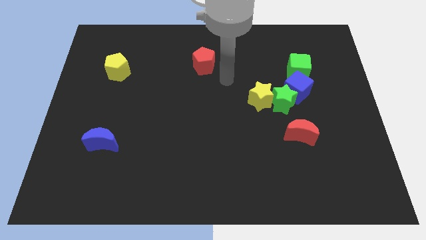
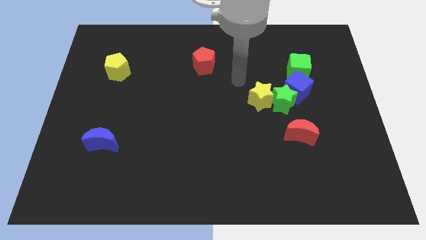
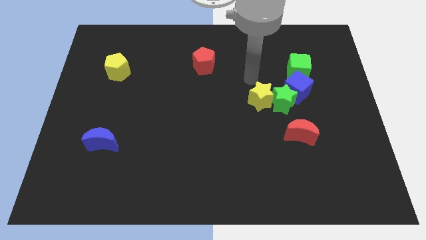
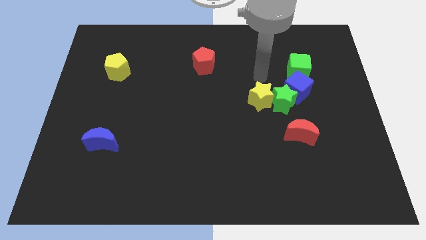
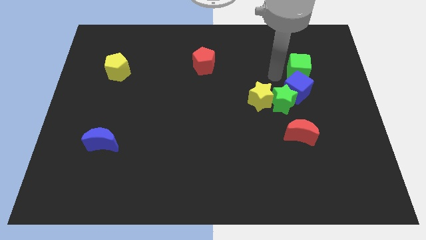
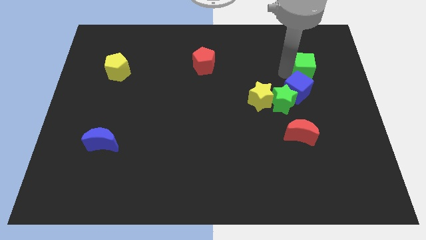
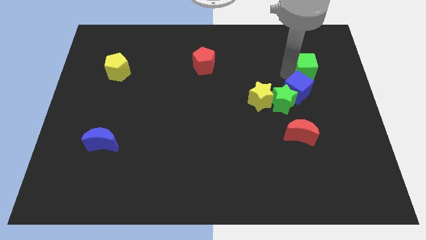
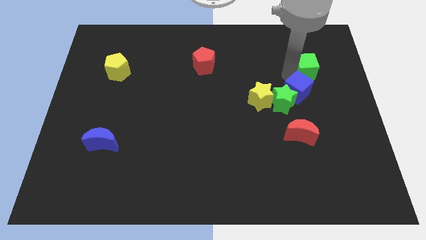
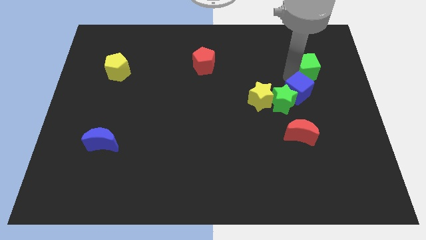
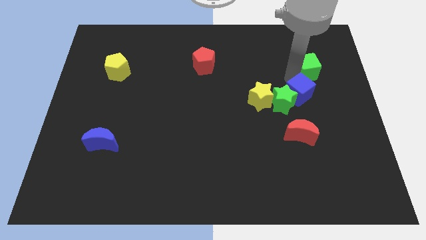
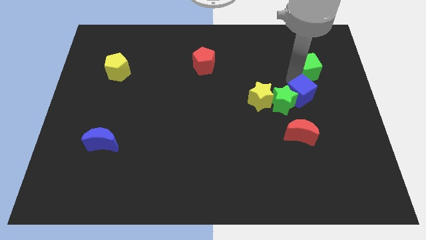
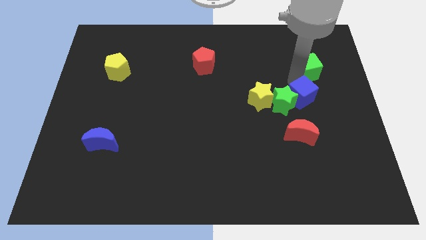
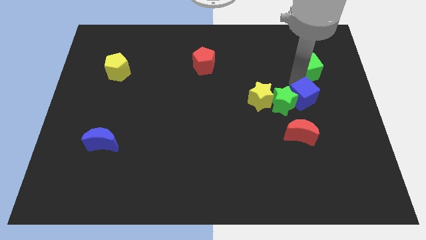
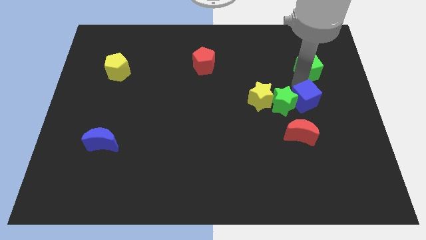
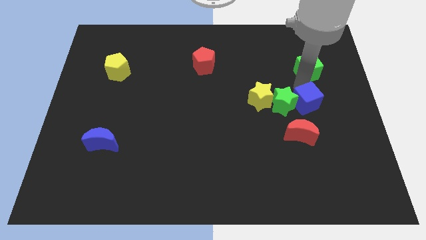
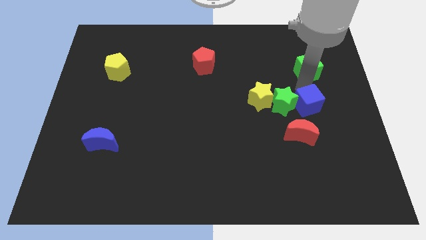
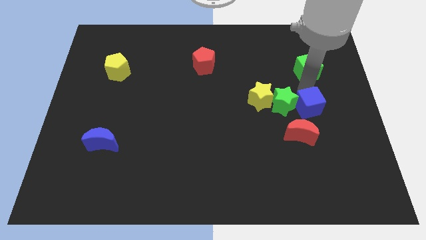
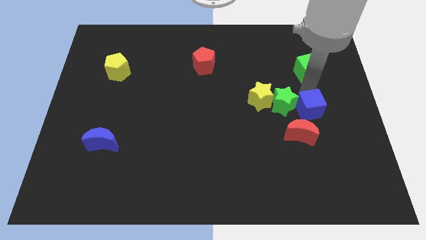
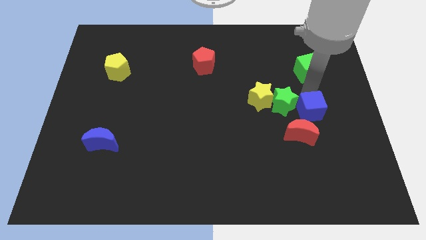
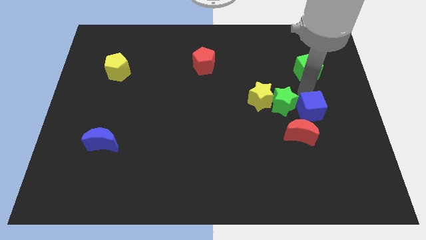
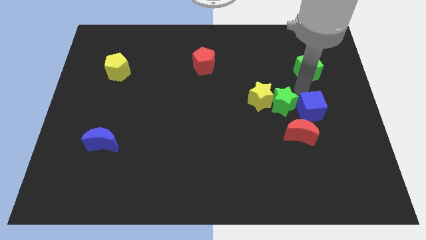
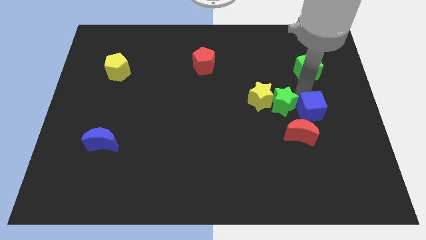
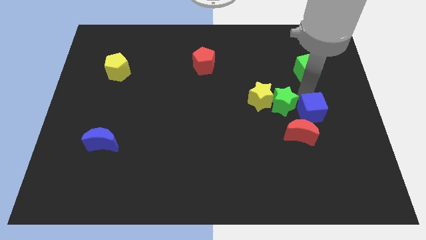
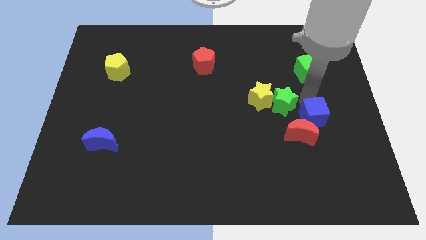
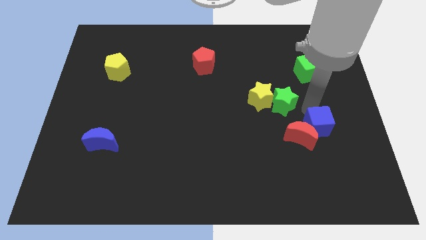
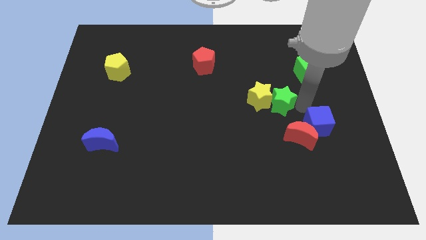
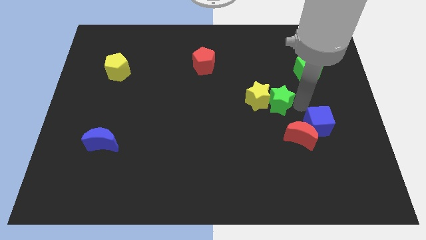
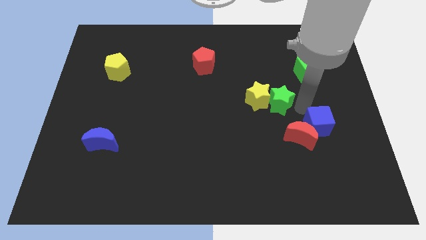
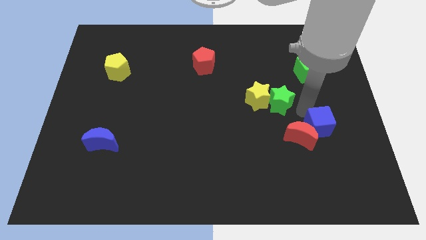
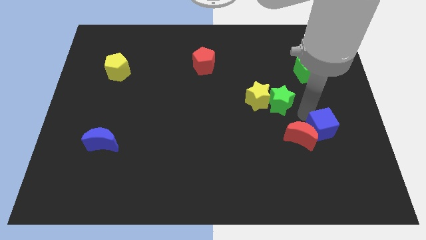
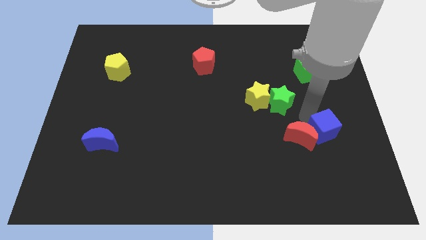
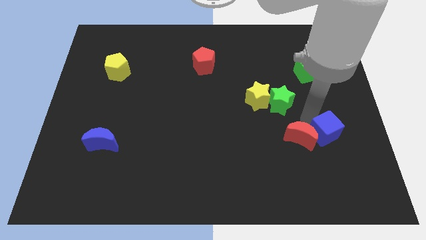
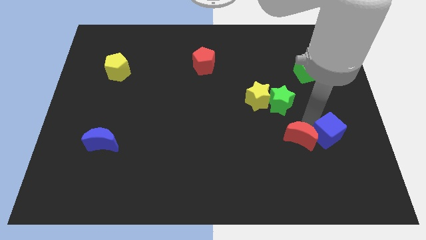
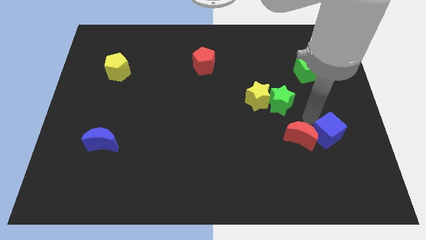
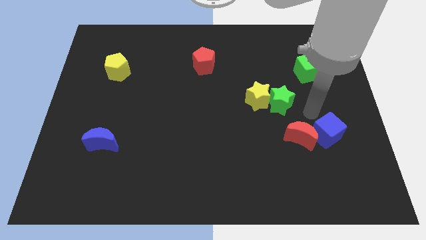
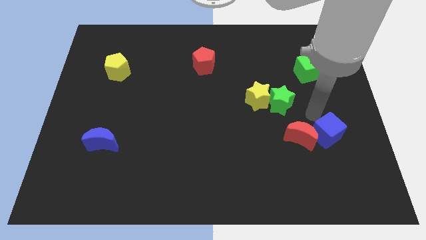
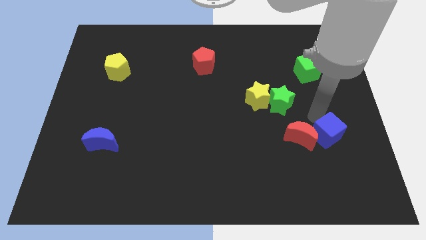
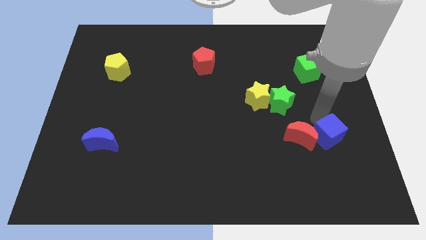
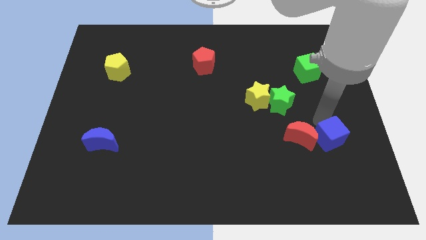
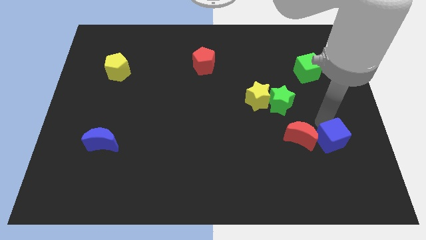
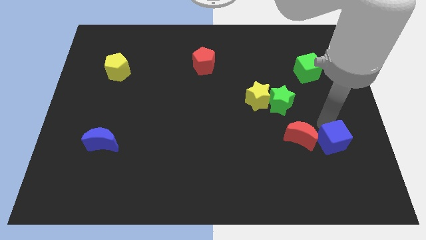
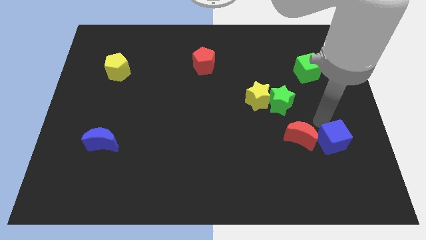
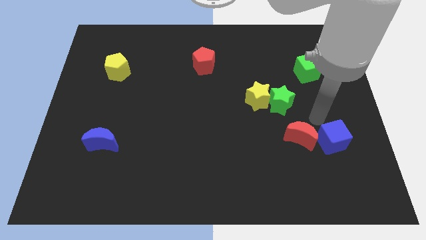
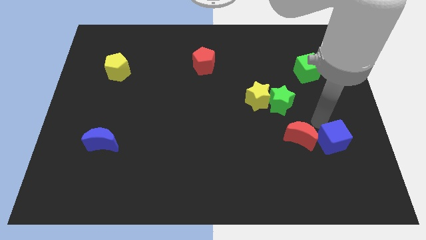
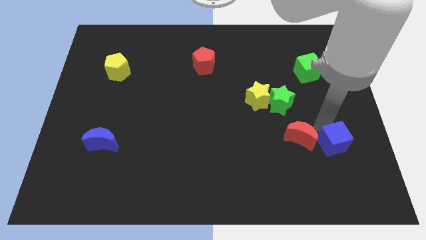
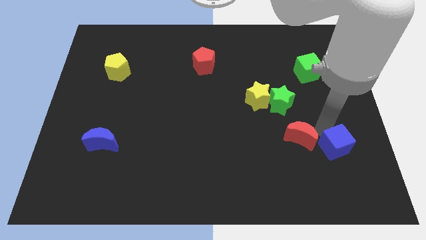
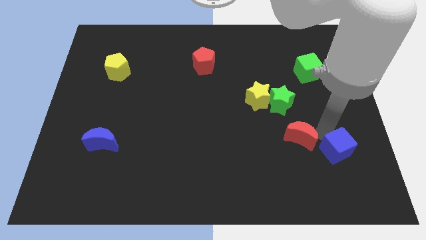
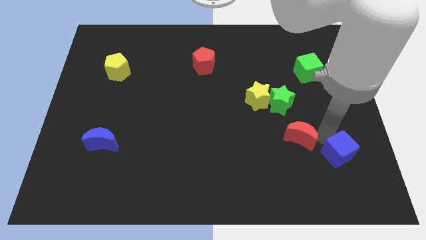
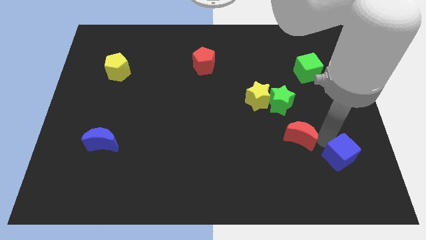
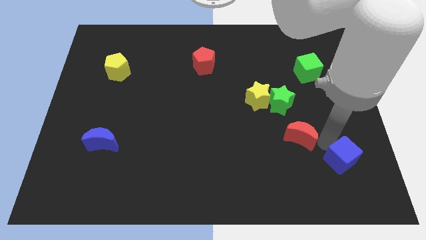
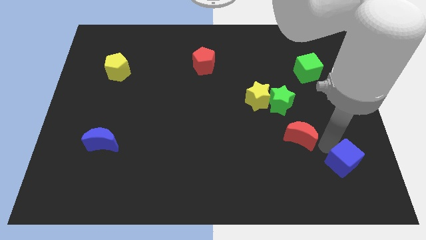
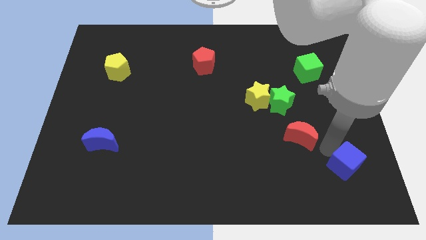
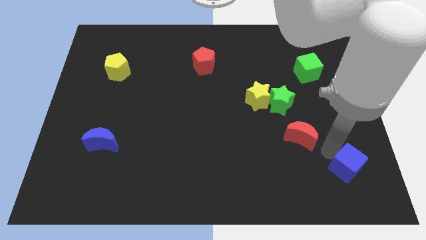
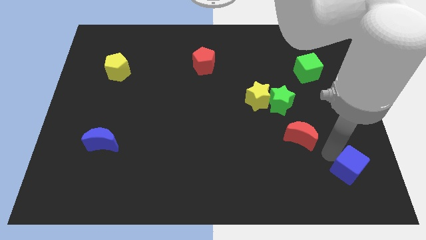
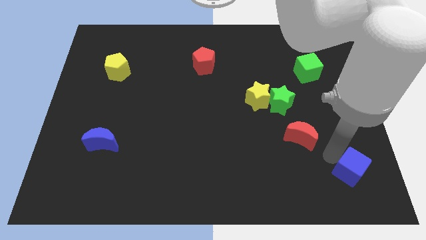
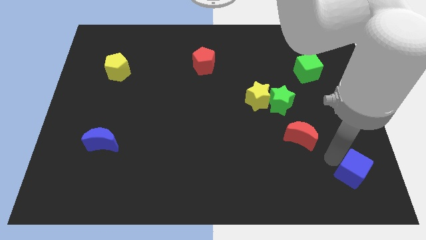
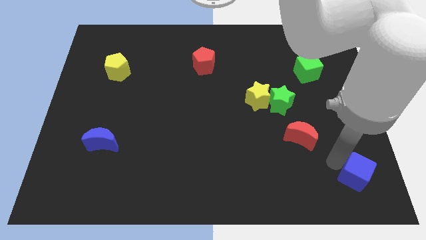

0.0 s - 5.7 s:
move the blue cube to the bottom right corner
